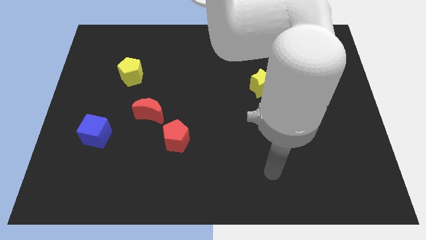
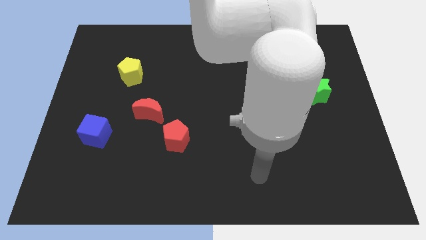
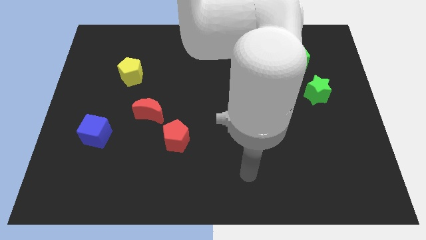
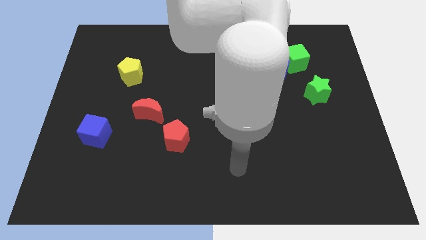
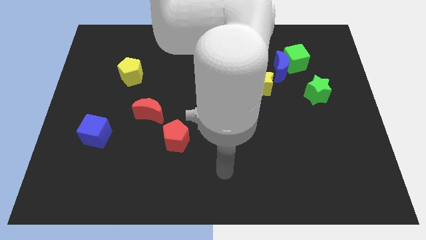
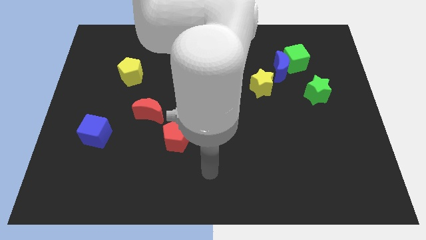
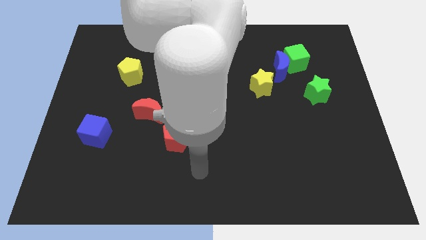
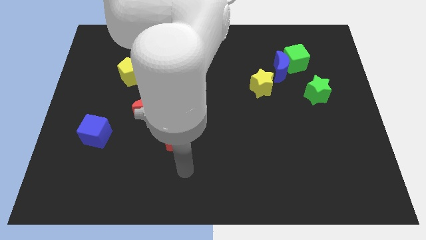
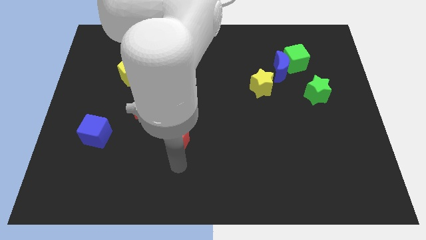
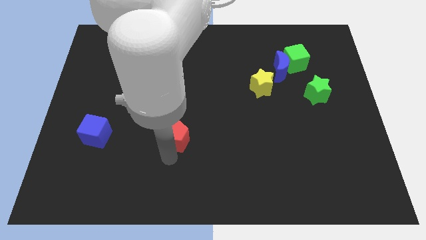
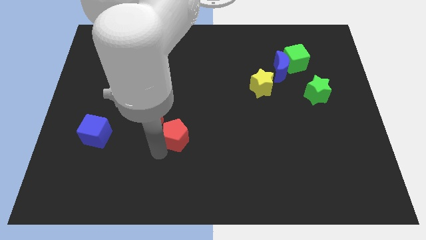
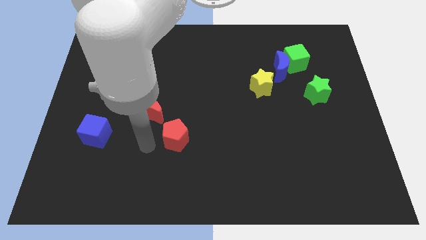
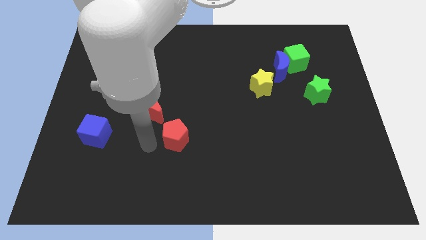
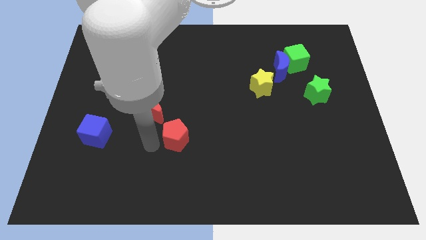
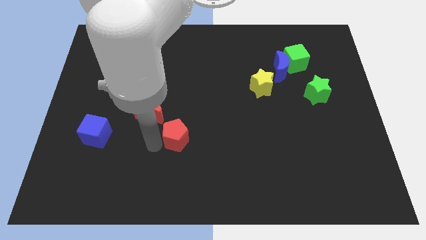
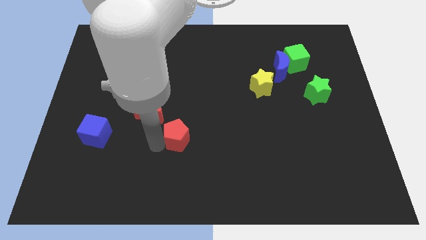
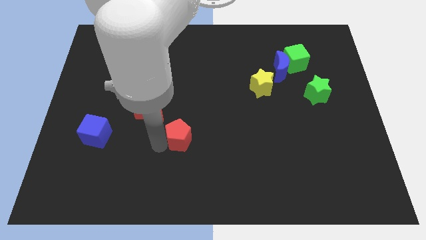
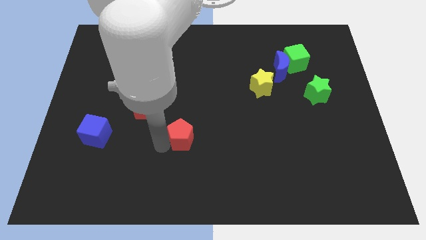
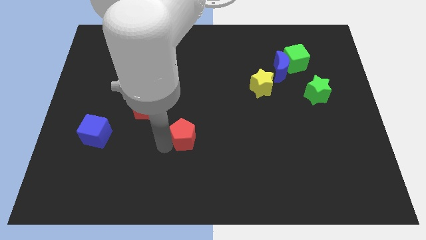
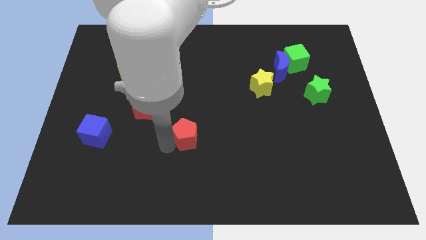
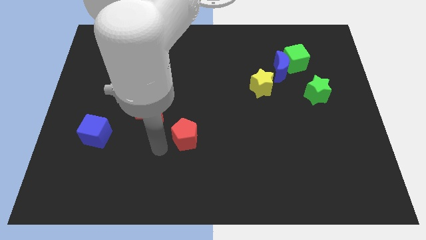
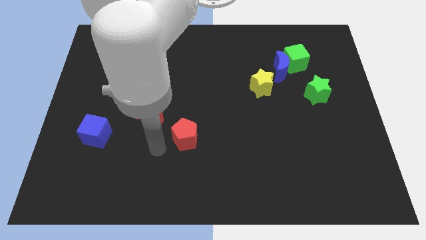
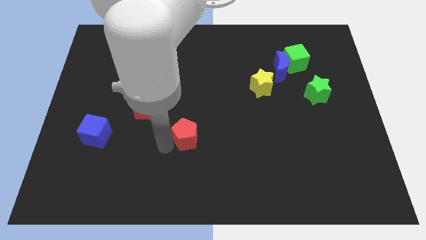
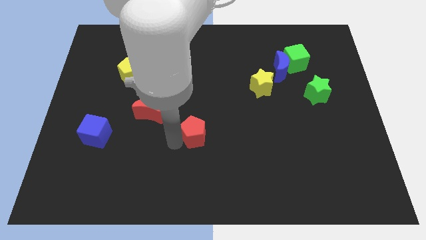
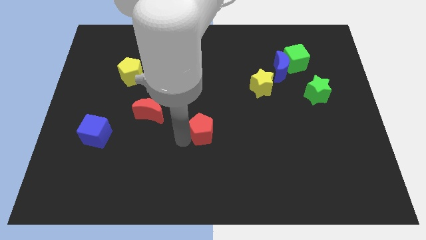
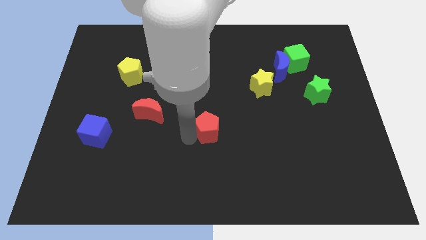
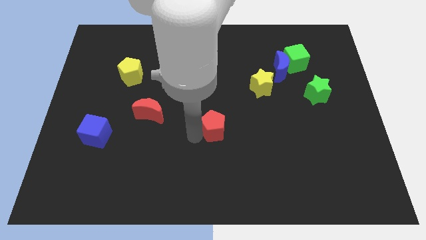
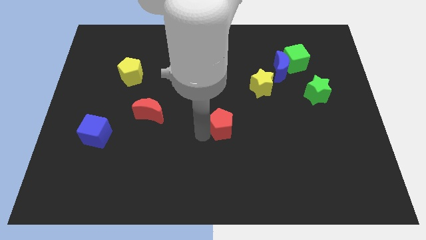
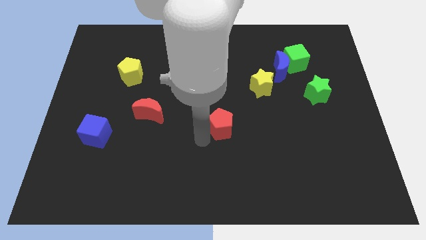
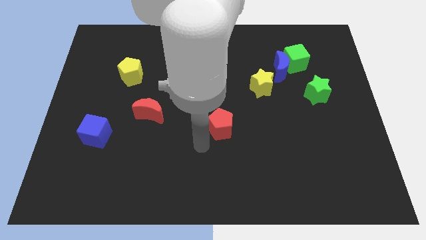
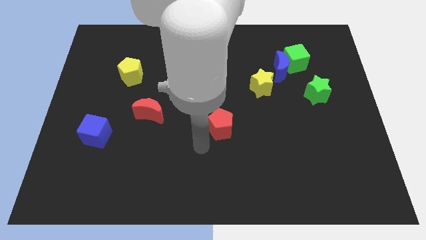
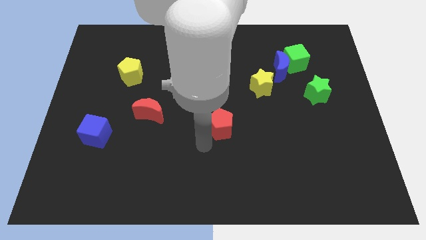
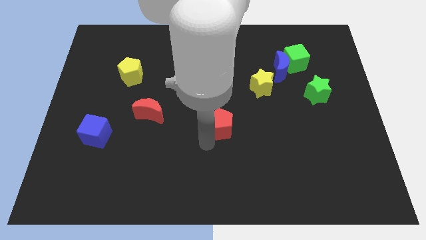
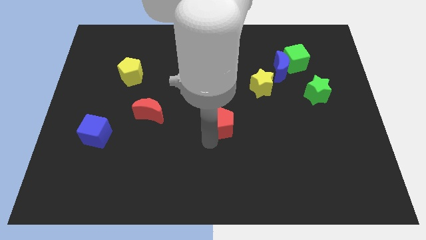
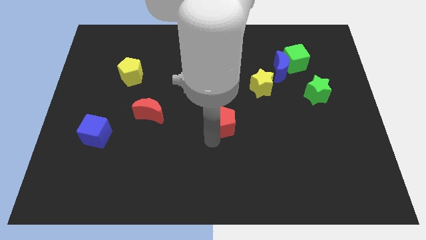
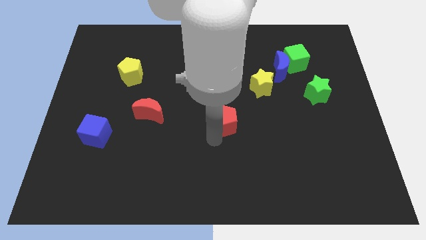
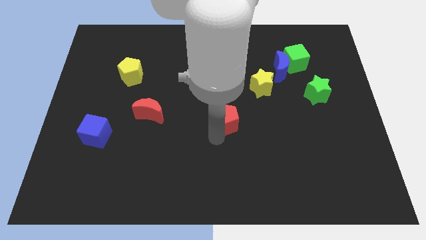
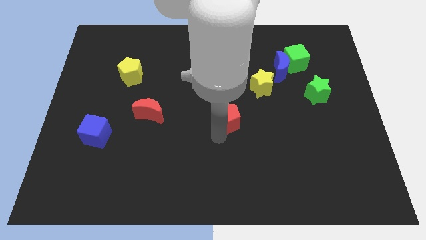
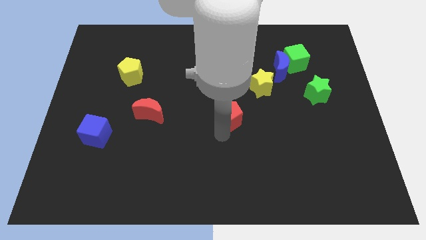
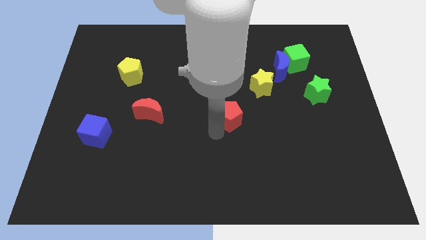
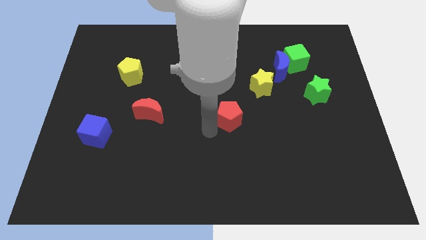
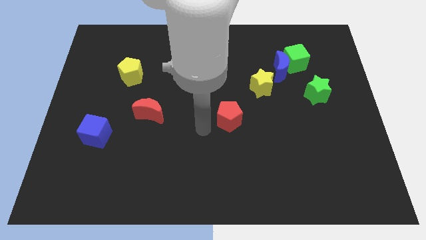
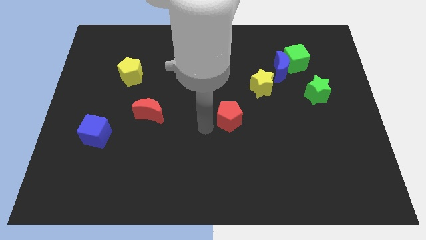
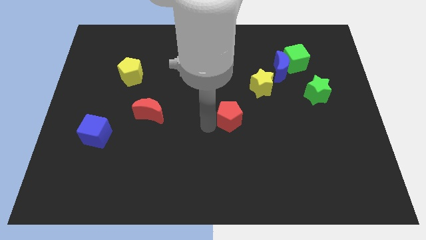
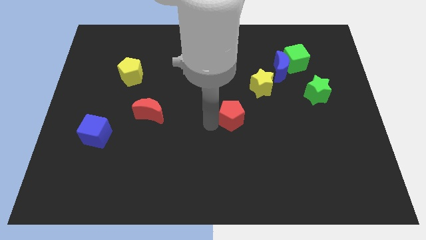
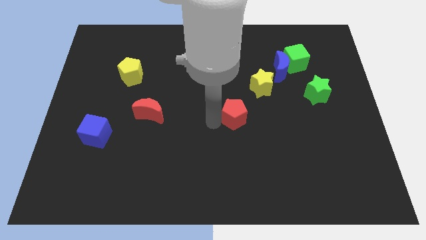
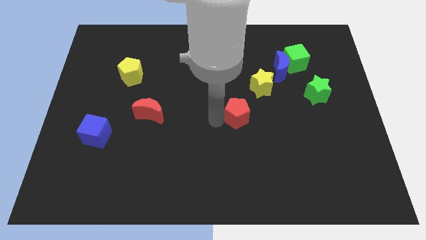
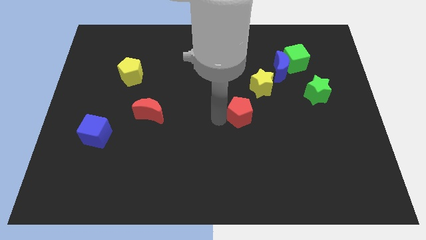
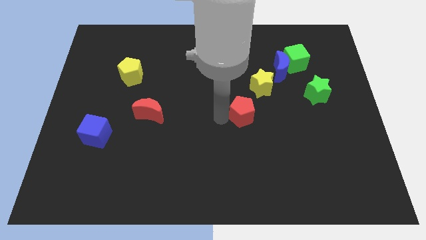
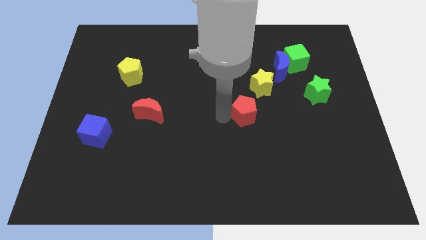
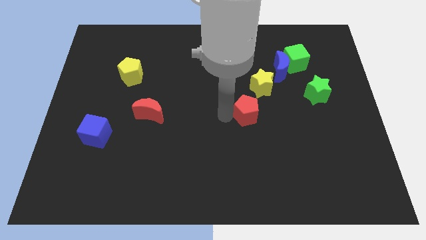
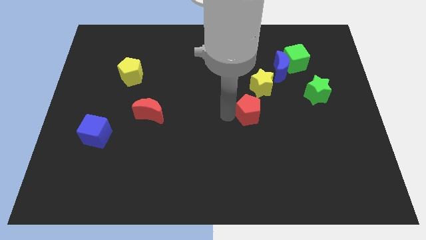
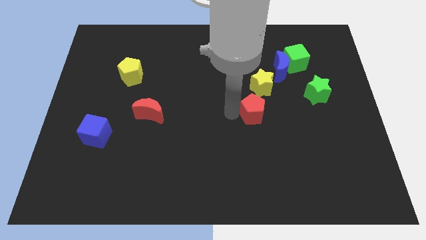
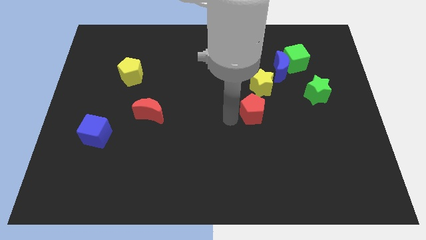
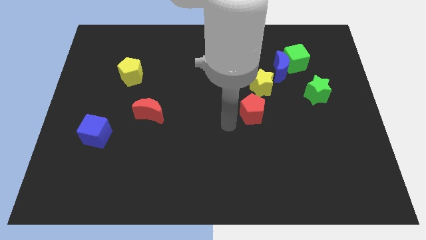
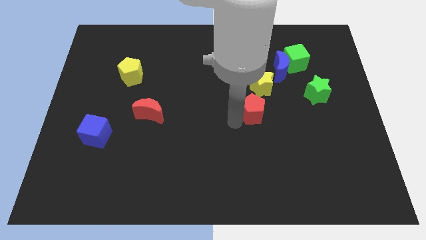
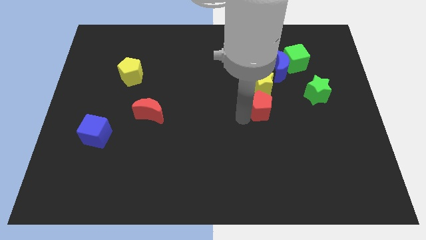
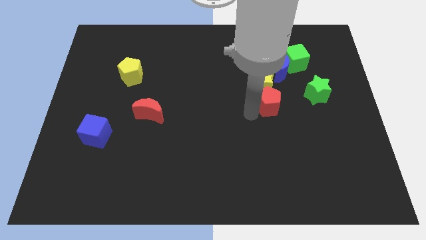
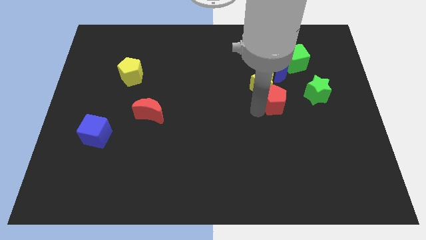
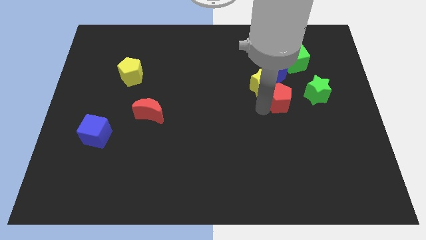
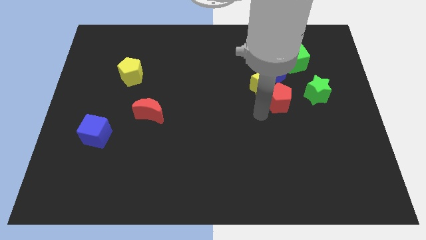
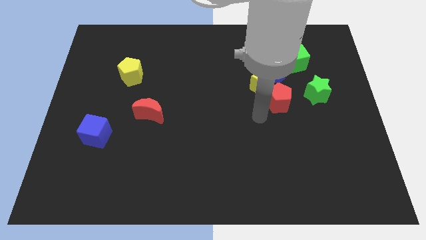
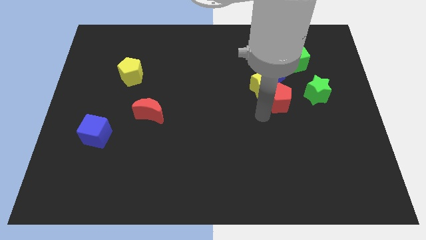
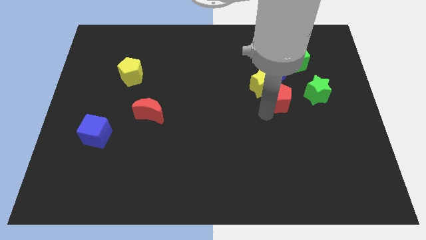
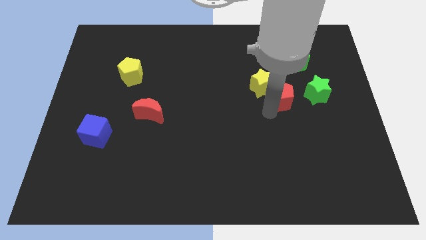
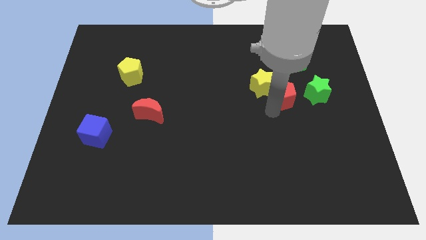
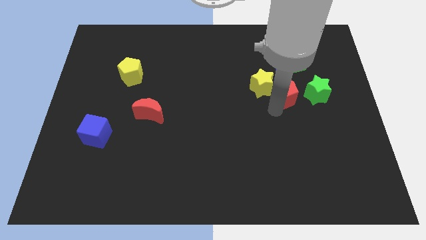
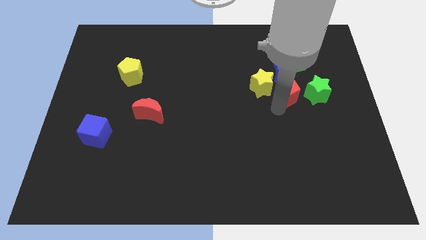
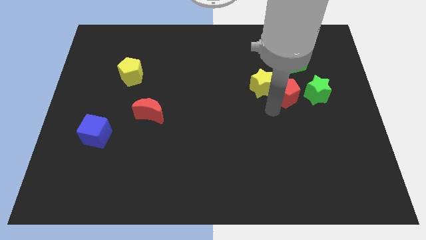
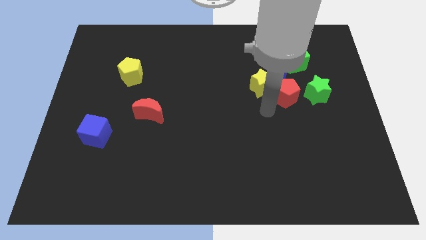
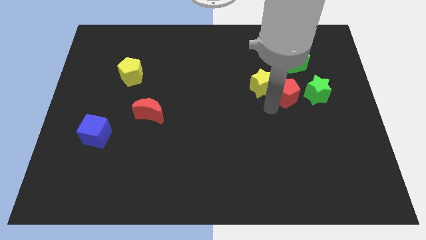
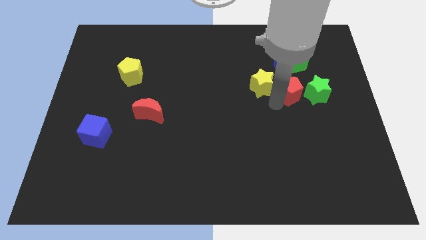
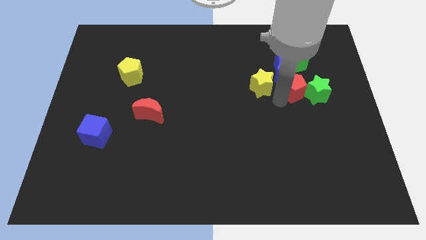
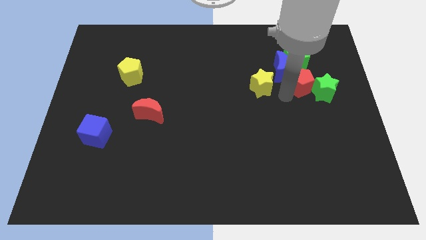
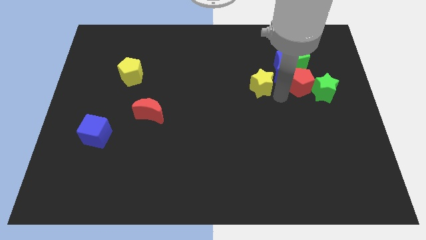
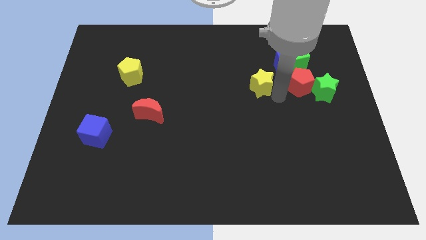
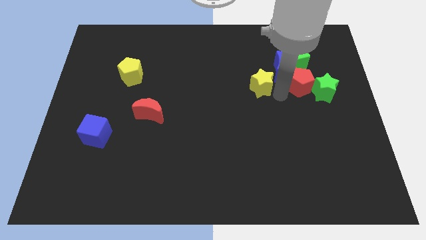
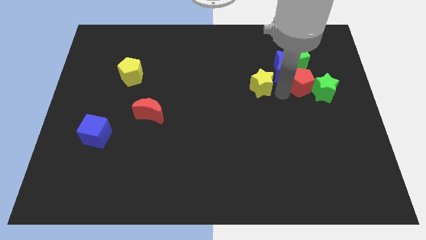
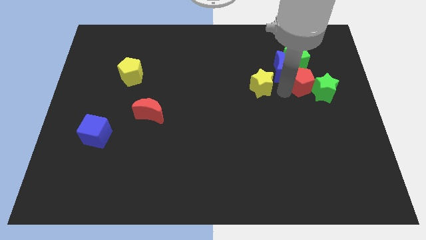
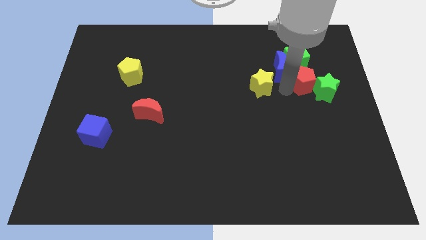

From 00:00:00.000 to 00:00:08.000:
slide the red pentagon to the bottom right side of the green cube
